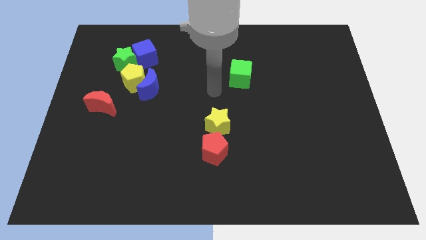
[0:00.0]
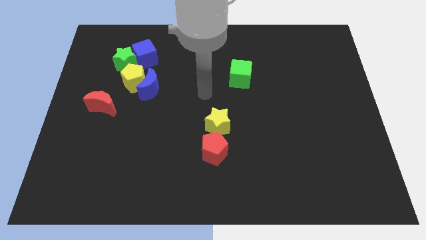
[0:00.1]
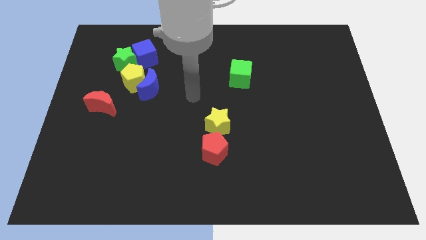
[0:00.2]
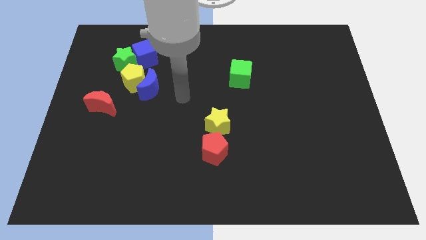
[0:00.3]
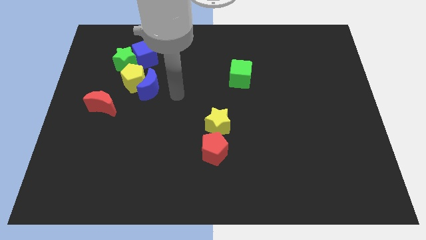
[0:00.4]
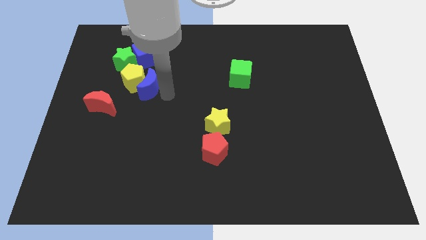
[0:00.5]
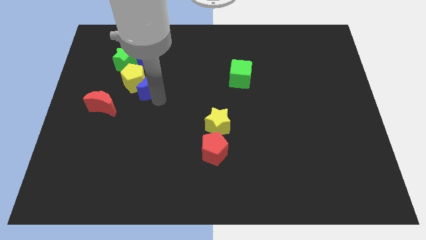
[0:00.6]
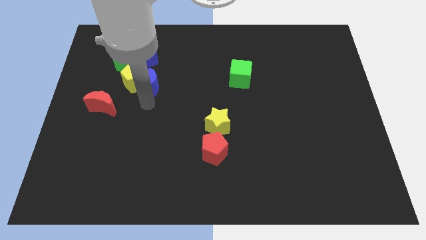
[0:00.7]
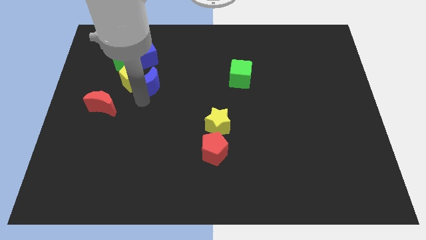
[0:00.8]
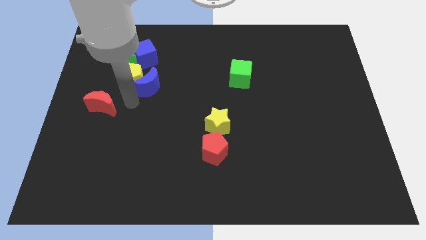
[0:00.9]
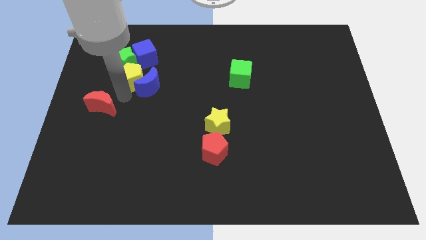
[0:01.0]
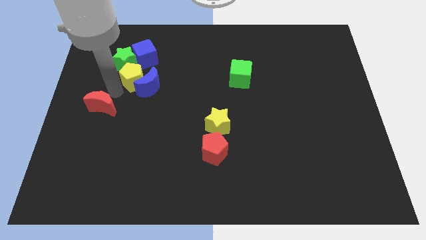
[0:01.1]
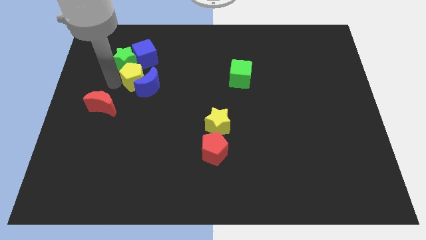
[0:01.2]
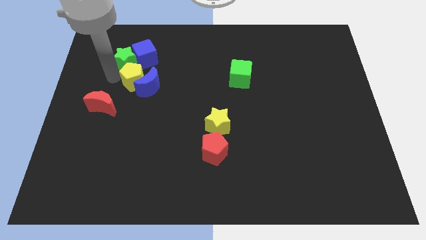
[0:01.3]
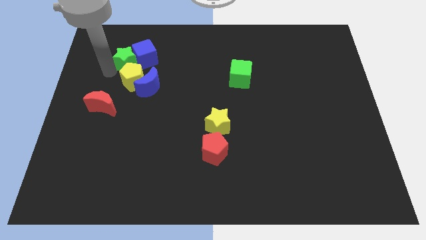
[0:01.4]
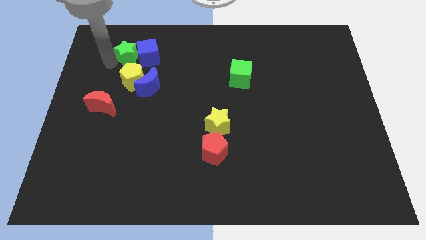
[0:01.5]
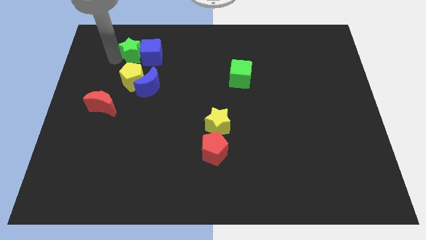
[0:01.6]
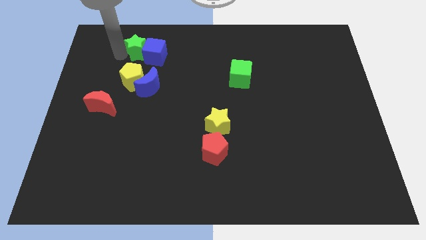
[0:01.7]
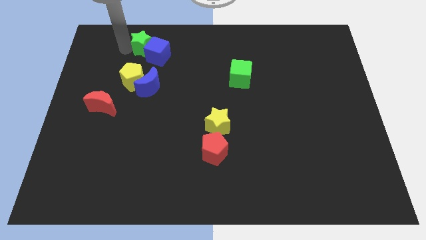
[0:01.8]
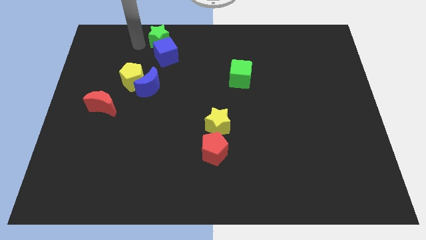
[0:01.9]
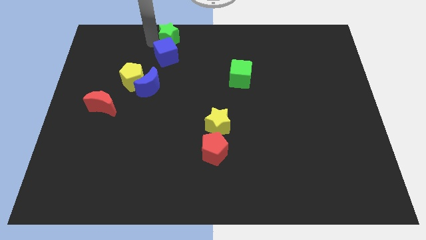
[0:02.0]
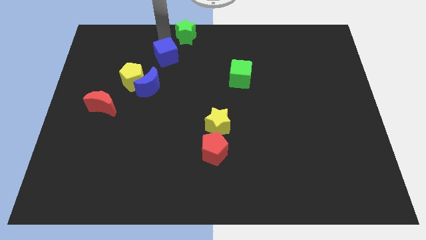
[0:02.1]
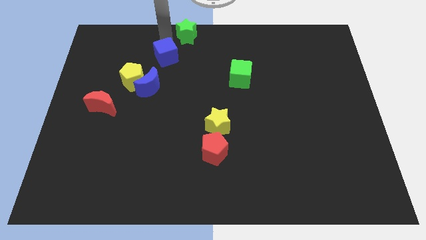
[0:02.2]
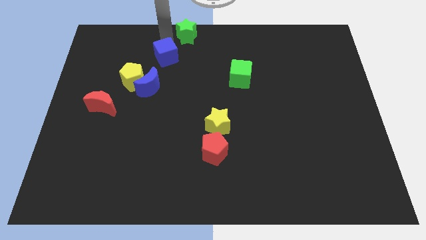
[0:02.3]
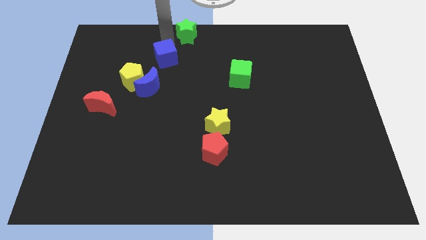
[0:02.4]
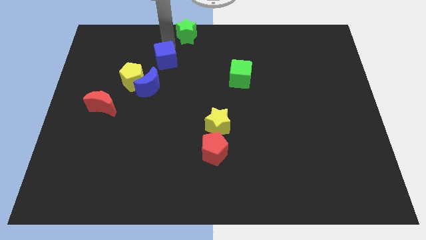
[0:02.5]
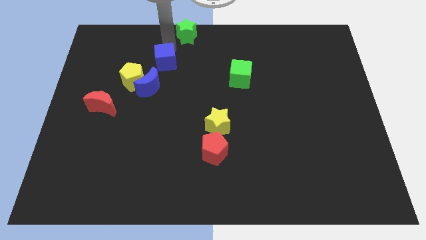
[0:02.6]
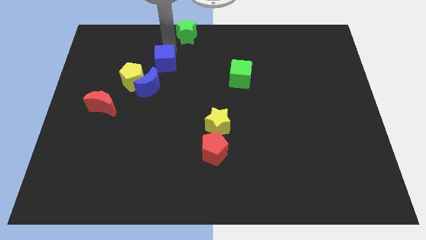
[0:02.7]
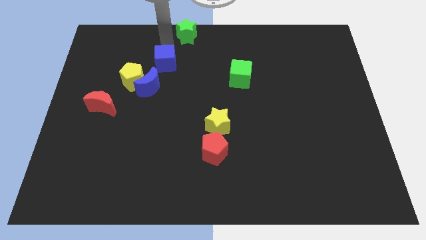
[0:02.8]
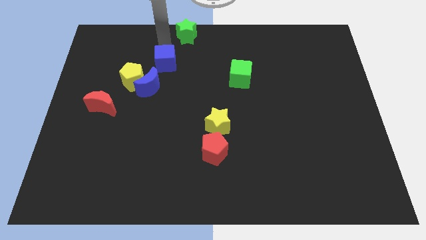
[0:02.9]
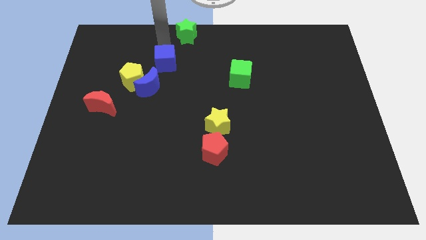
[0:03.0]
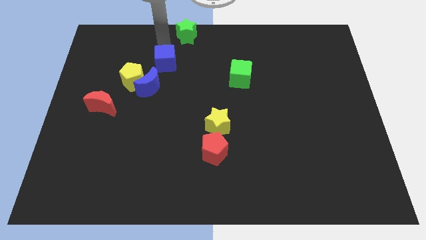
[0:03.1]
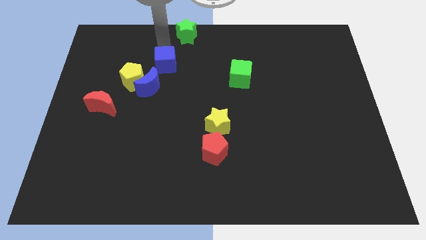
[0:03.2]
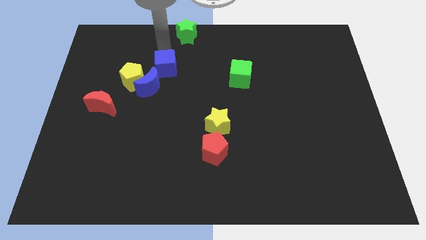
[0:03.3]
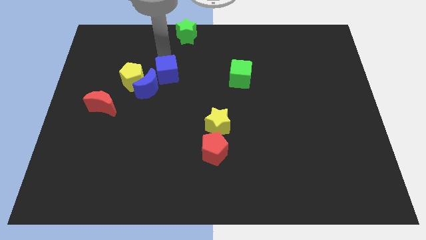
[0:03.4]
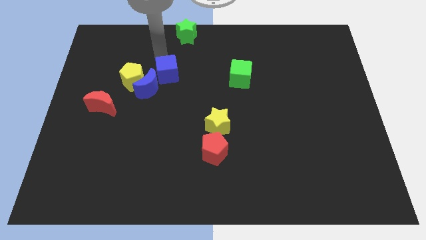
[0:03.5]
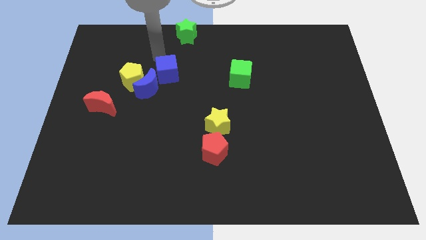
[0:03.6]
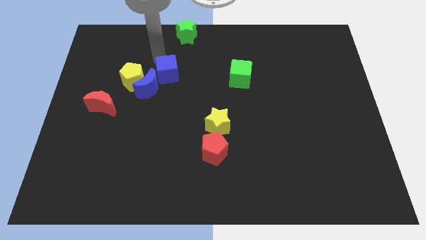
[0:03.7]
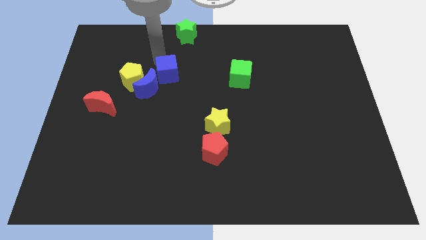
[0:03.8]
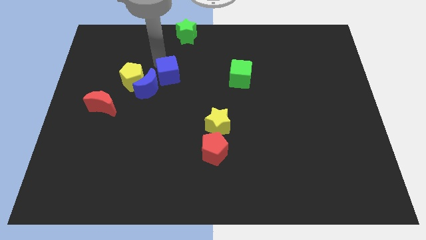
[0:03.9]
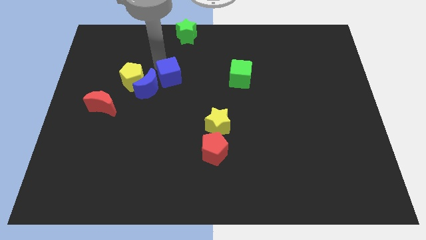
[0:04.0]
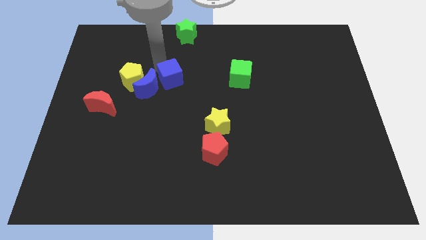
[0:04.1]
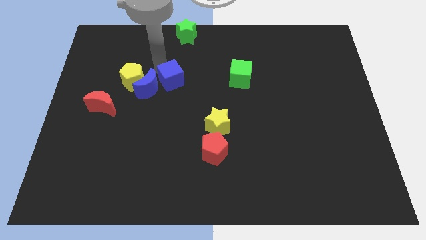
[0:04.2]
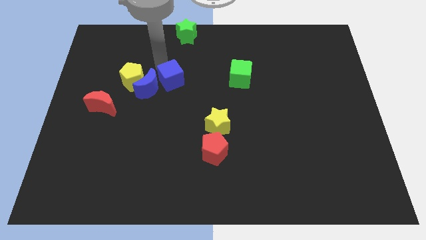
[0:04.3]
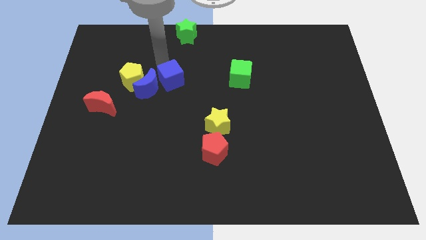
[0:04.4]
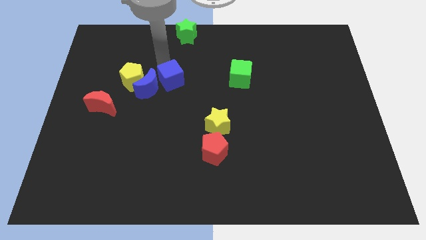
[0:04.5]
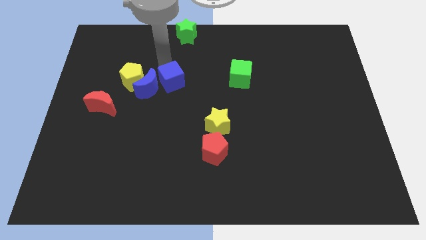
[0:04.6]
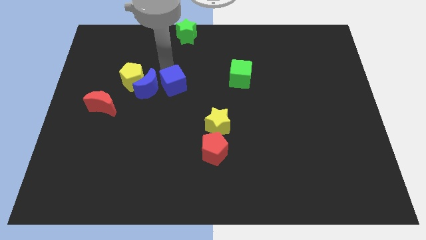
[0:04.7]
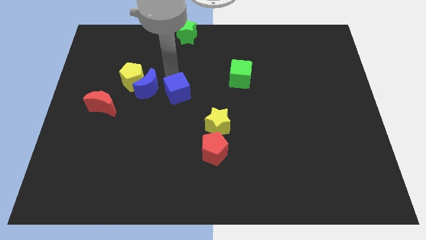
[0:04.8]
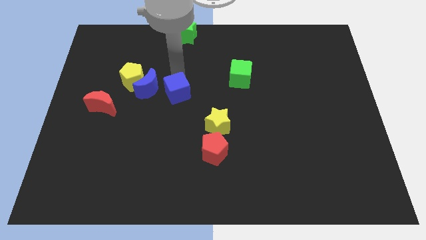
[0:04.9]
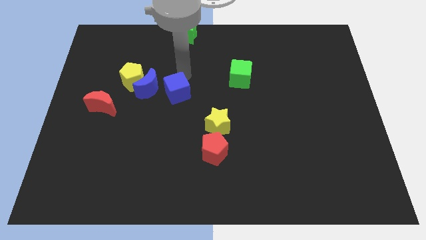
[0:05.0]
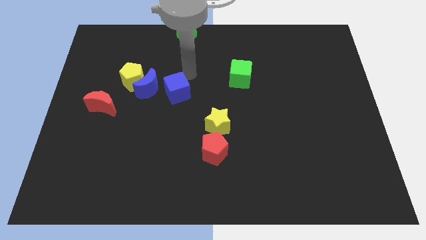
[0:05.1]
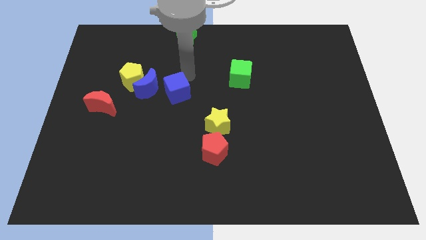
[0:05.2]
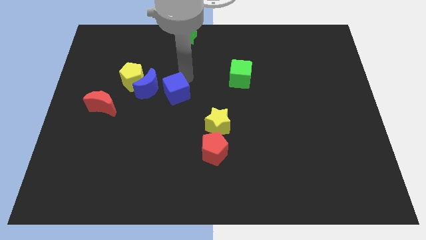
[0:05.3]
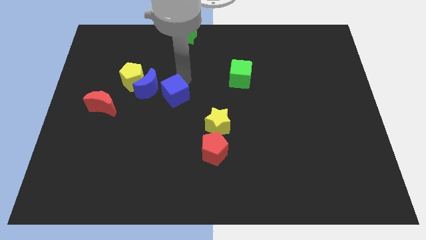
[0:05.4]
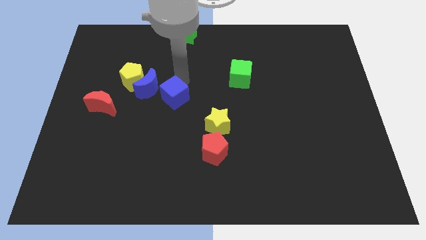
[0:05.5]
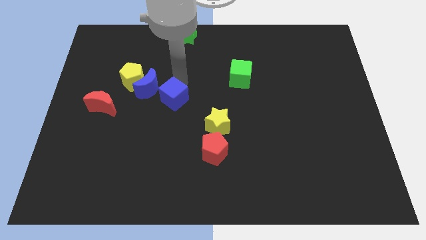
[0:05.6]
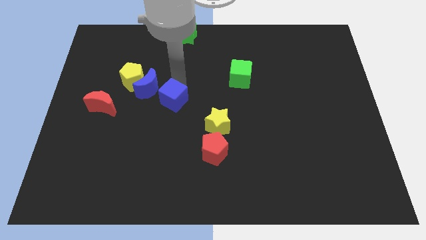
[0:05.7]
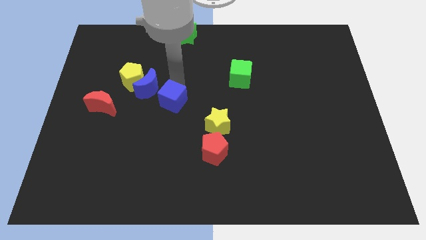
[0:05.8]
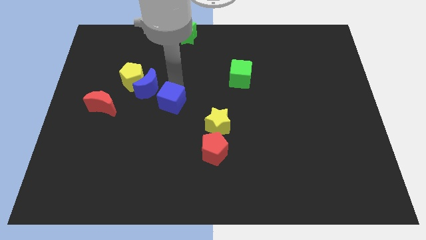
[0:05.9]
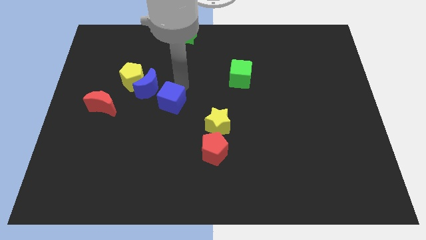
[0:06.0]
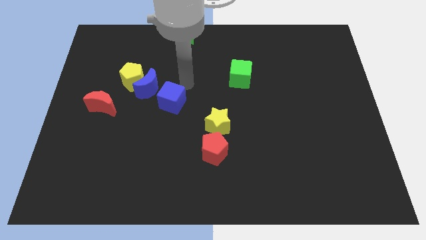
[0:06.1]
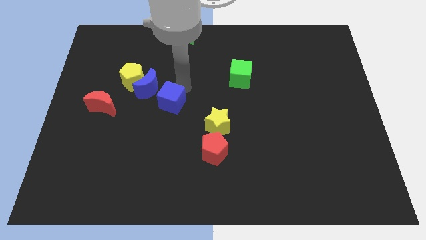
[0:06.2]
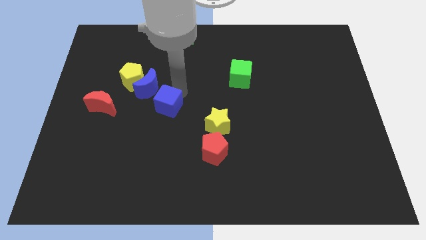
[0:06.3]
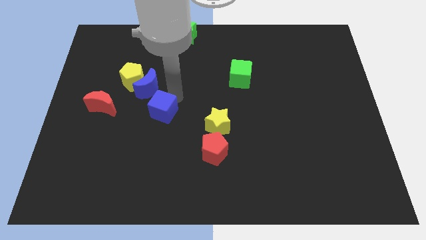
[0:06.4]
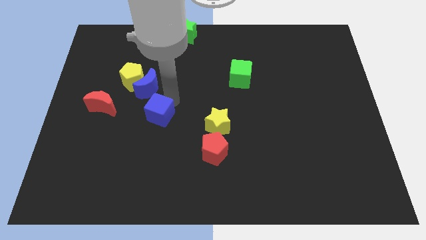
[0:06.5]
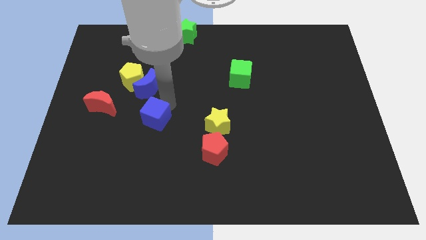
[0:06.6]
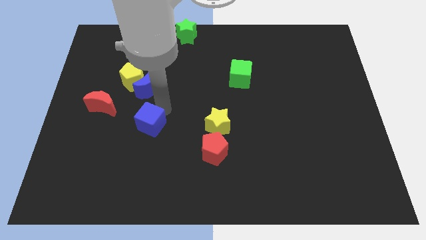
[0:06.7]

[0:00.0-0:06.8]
slide the blue cube downwards

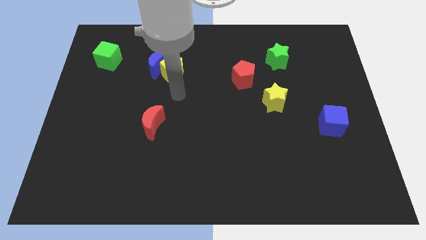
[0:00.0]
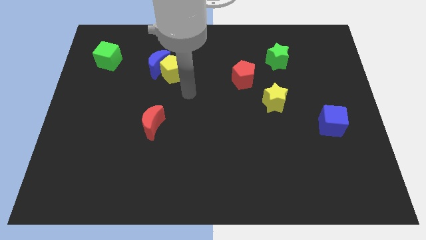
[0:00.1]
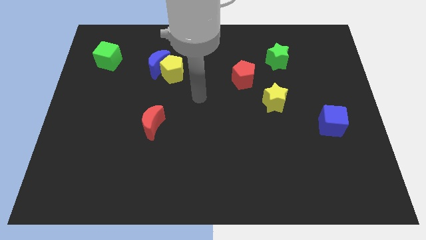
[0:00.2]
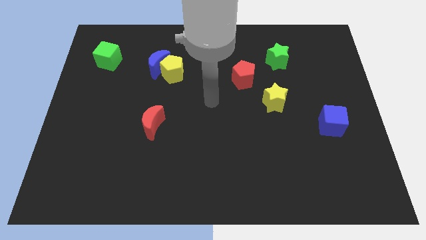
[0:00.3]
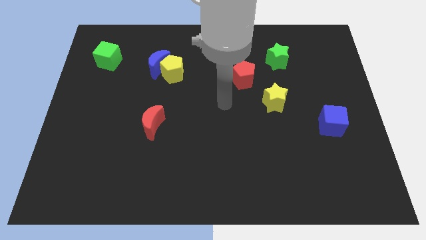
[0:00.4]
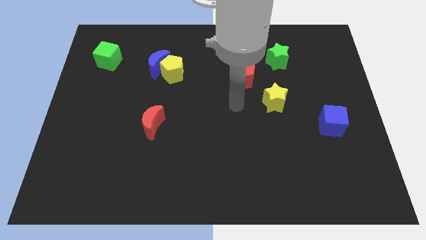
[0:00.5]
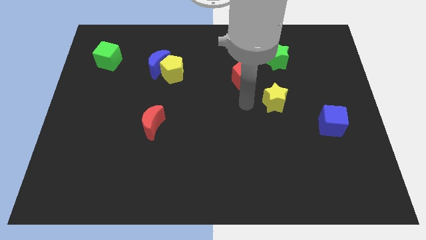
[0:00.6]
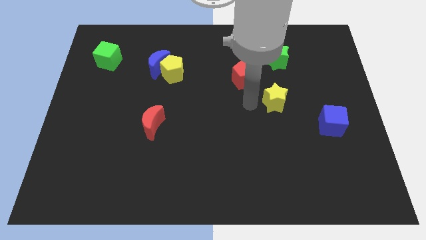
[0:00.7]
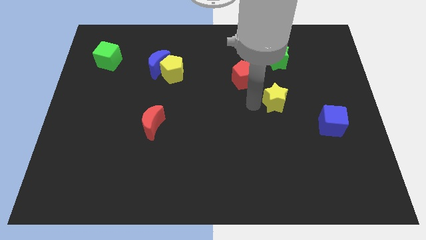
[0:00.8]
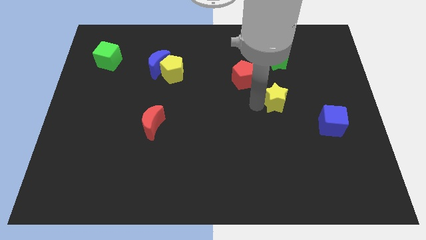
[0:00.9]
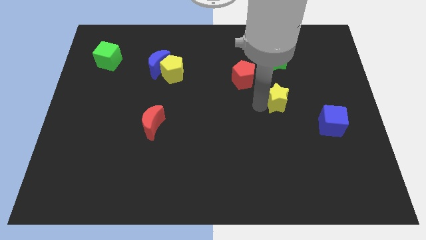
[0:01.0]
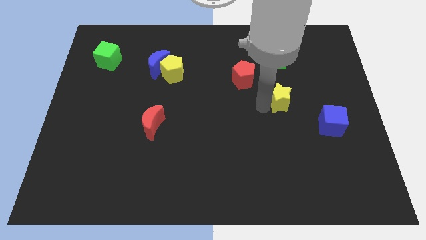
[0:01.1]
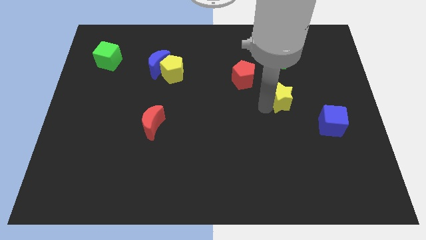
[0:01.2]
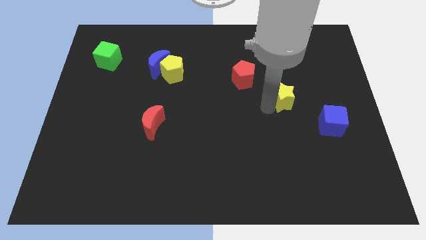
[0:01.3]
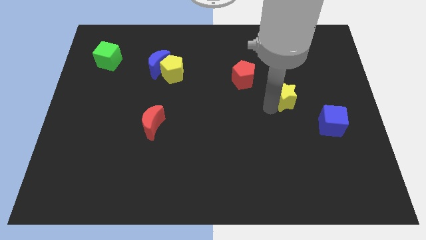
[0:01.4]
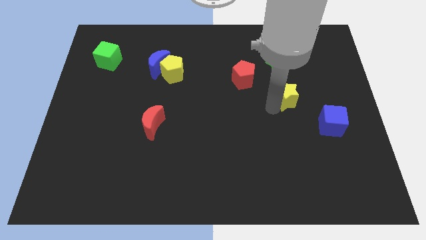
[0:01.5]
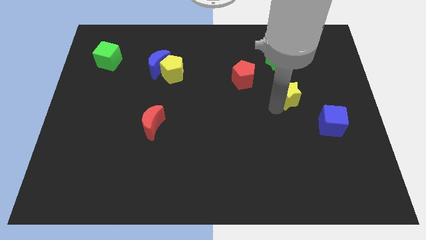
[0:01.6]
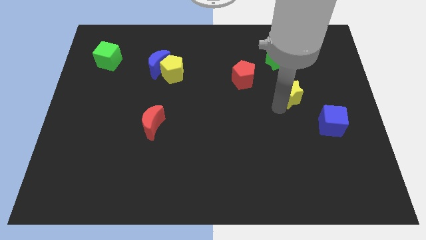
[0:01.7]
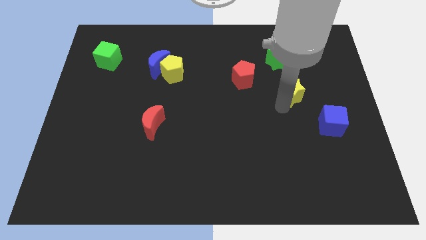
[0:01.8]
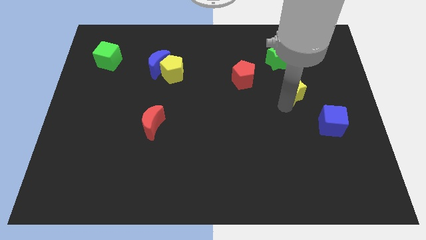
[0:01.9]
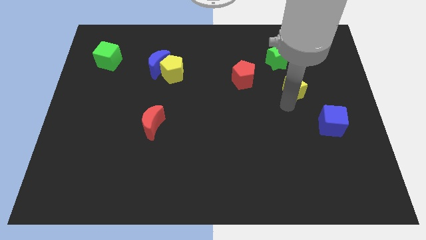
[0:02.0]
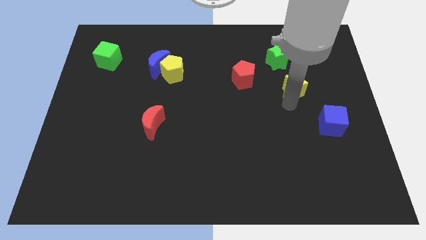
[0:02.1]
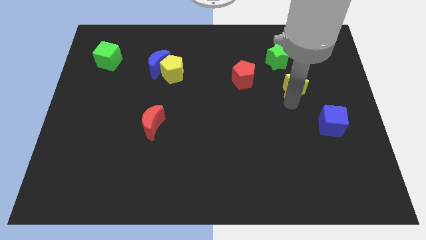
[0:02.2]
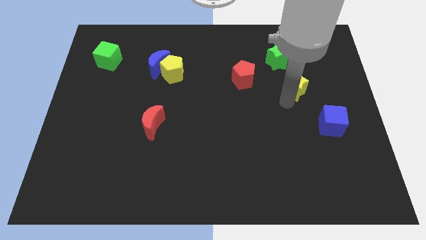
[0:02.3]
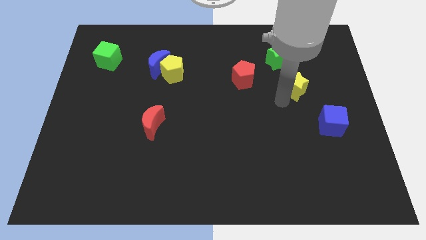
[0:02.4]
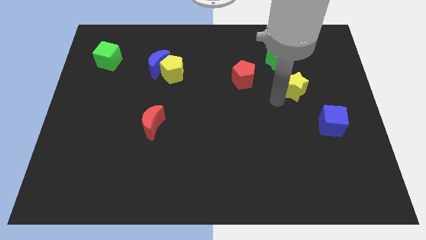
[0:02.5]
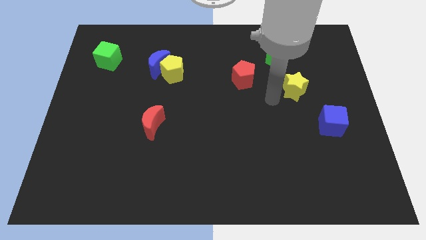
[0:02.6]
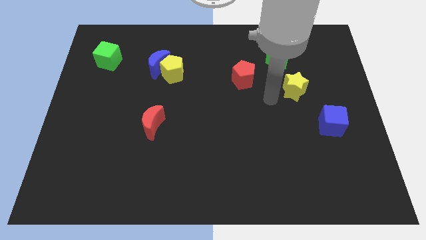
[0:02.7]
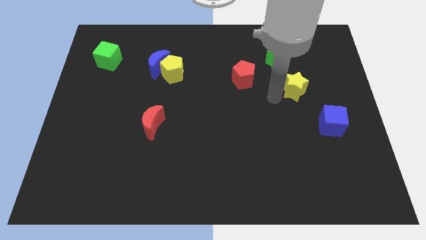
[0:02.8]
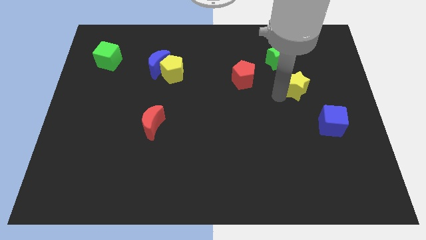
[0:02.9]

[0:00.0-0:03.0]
push the yellow star upwards and to the right diagonally somewhat
